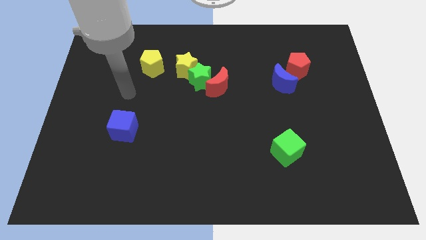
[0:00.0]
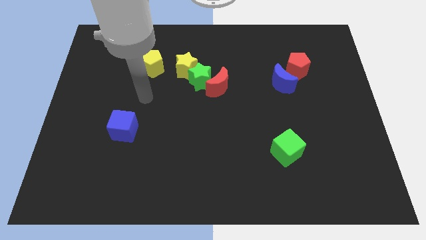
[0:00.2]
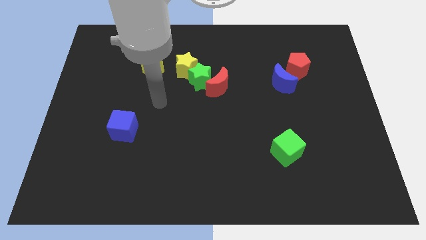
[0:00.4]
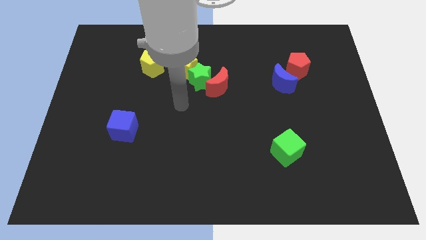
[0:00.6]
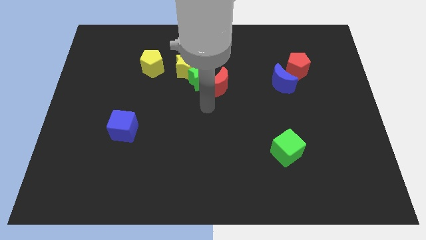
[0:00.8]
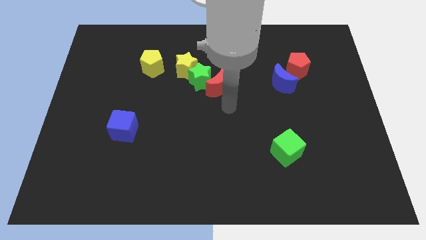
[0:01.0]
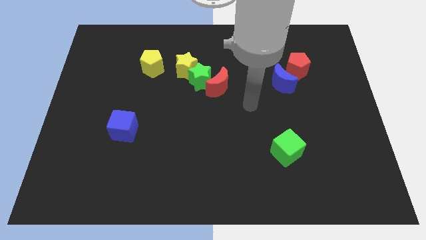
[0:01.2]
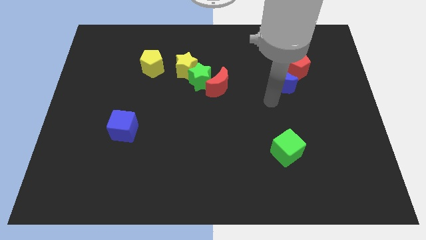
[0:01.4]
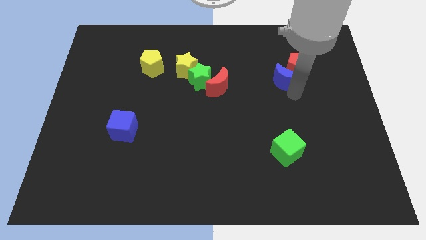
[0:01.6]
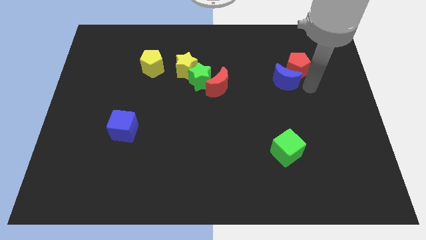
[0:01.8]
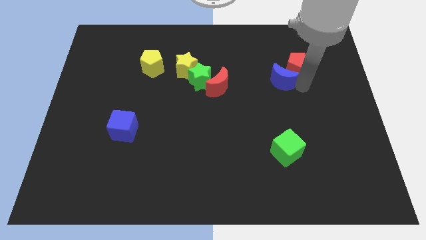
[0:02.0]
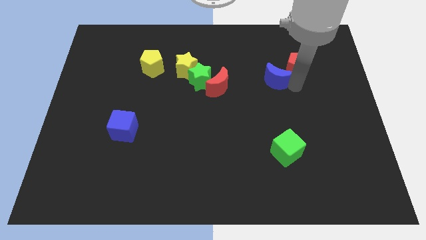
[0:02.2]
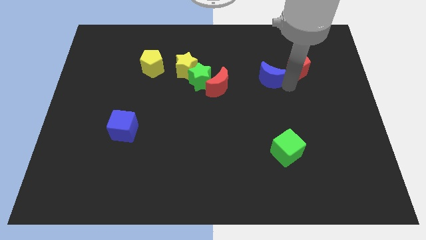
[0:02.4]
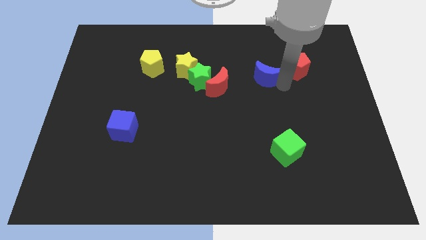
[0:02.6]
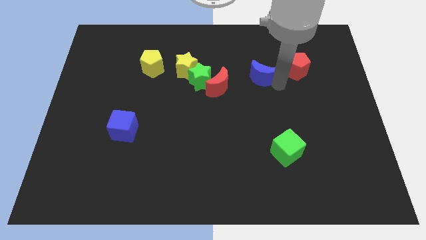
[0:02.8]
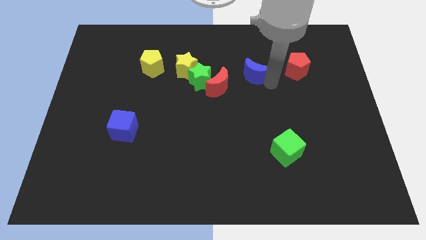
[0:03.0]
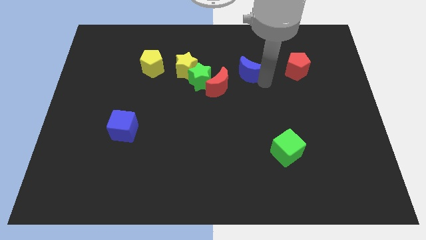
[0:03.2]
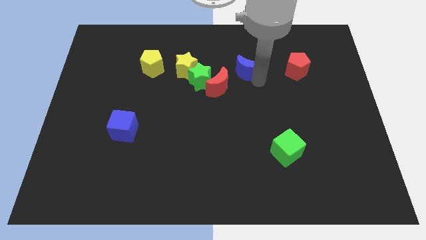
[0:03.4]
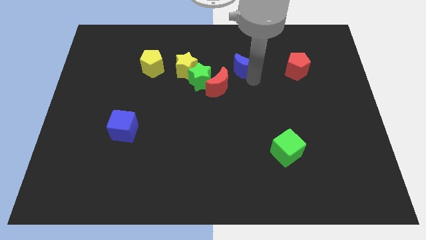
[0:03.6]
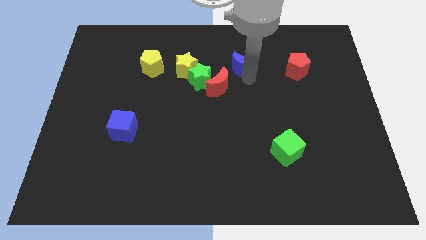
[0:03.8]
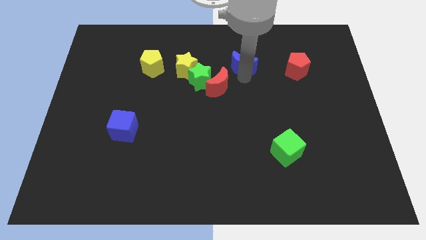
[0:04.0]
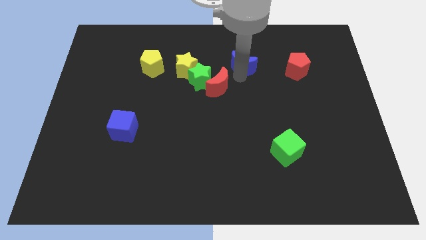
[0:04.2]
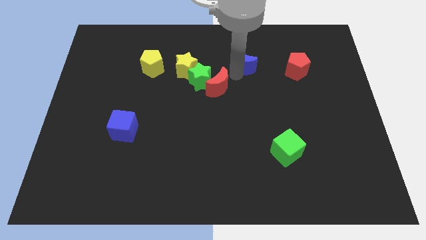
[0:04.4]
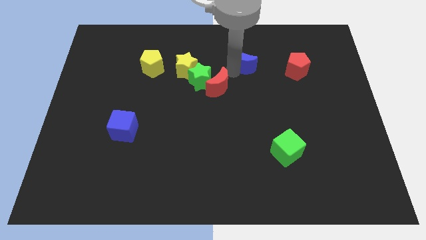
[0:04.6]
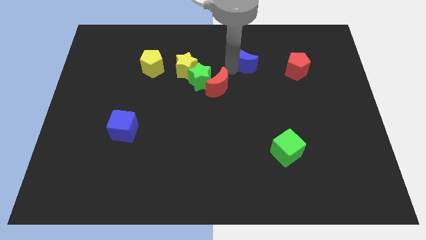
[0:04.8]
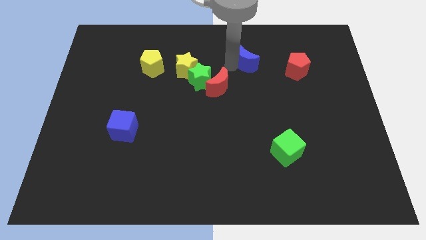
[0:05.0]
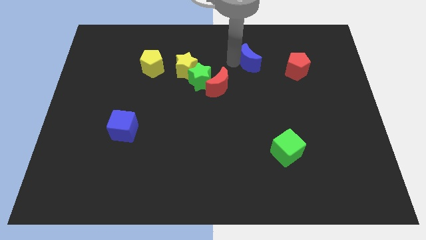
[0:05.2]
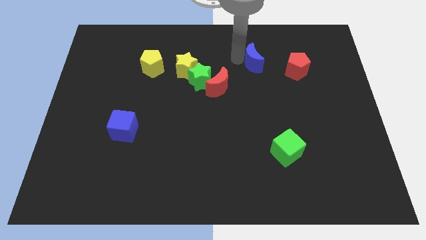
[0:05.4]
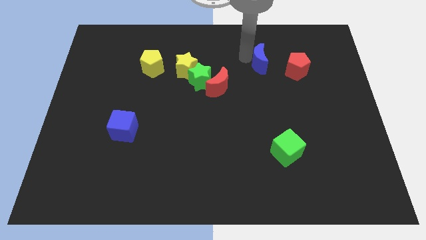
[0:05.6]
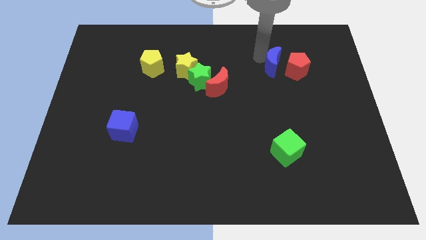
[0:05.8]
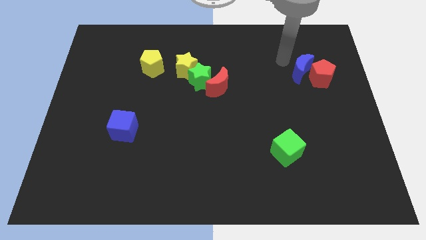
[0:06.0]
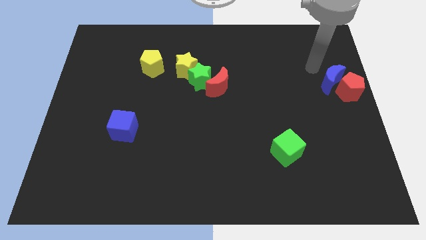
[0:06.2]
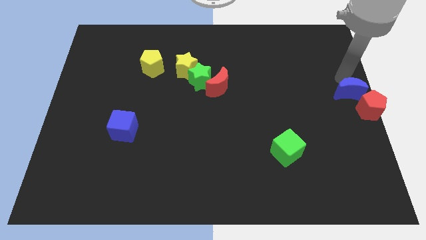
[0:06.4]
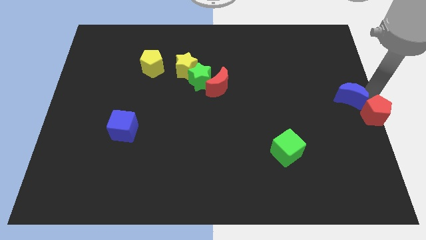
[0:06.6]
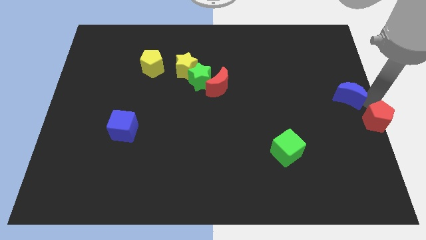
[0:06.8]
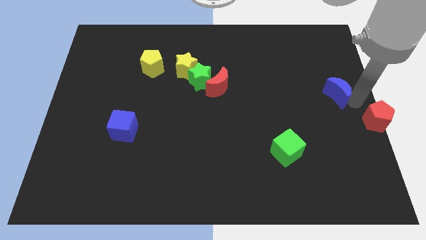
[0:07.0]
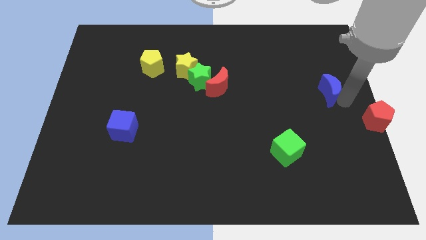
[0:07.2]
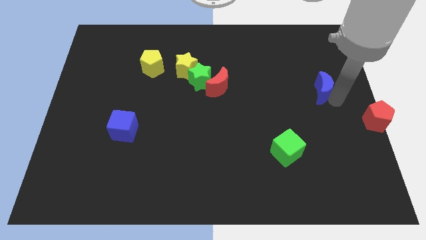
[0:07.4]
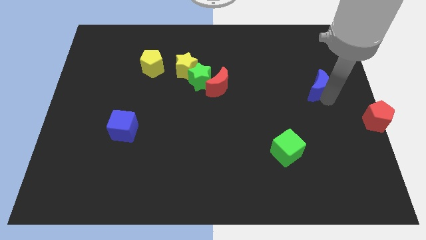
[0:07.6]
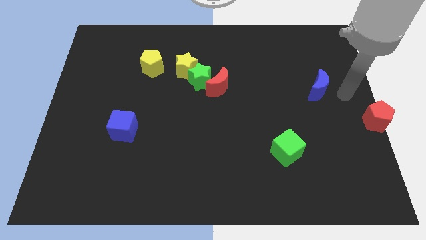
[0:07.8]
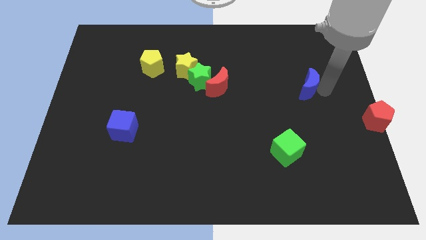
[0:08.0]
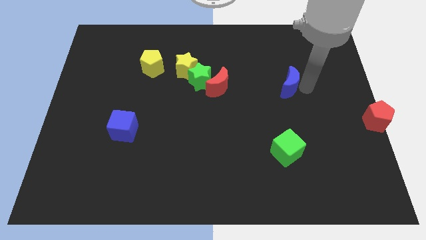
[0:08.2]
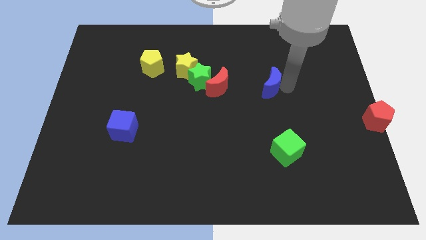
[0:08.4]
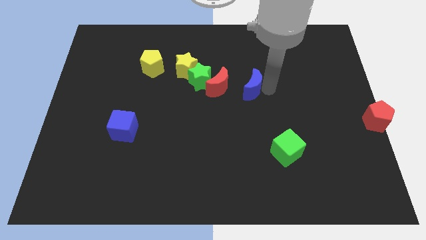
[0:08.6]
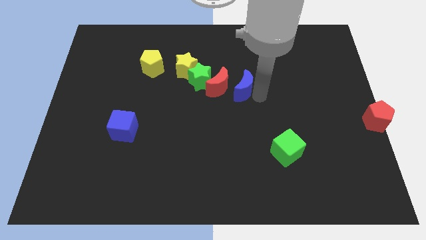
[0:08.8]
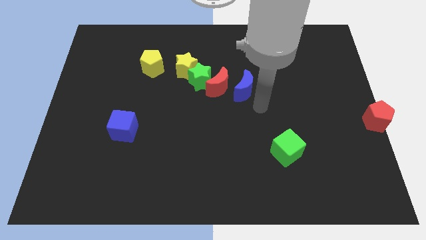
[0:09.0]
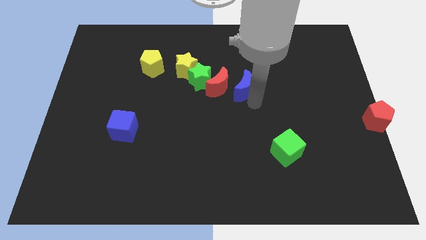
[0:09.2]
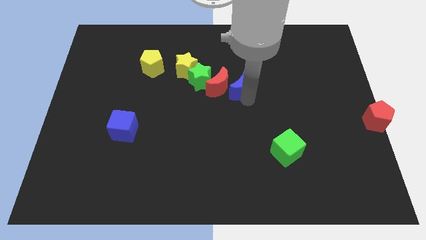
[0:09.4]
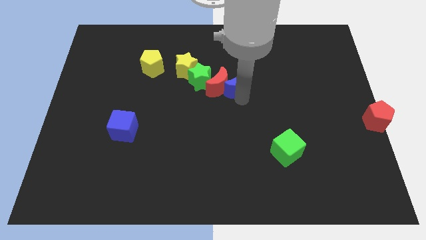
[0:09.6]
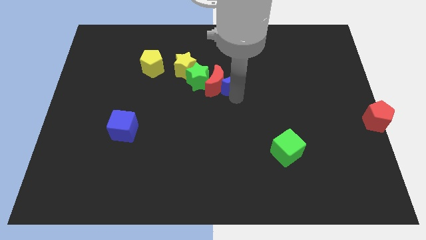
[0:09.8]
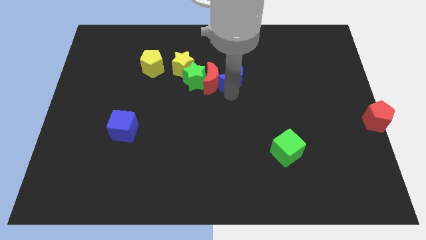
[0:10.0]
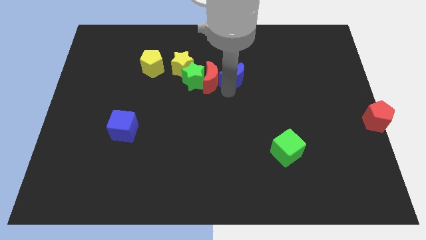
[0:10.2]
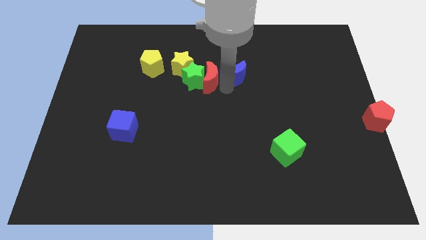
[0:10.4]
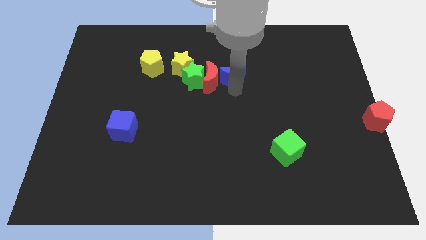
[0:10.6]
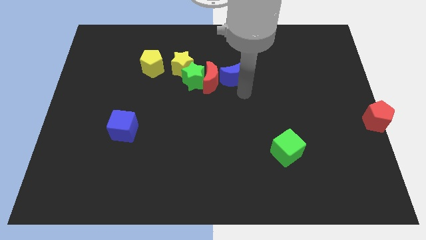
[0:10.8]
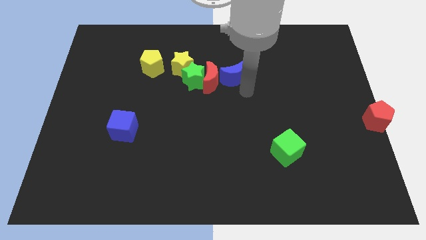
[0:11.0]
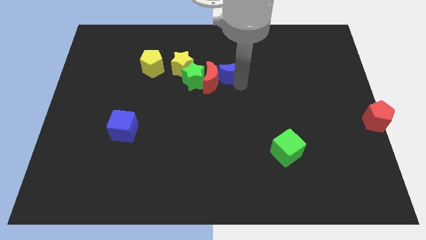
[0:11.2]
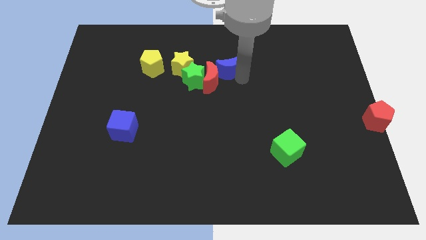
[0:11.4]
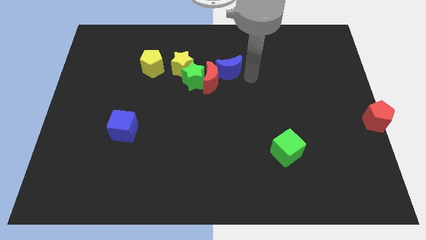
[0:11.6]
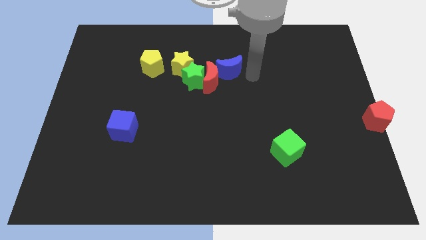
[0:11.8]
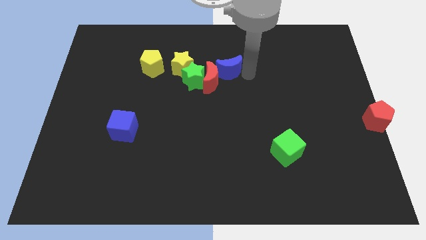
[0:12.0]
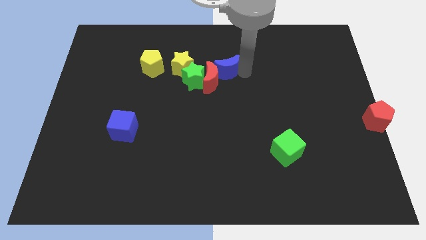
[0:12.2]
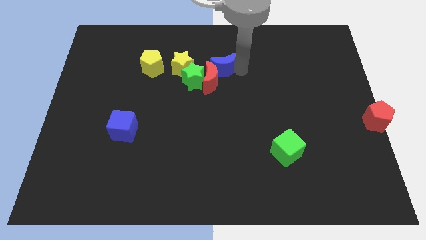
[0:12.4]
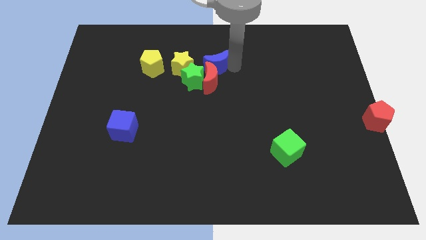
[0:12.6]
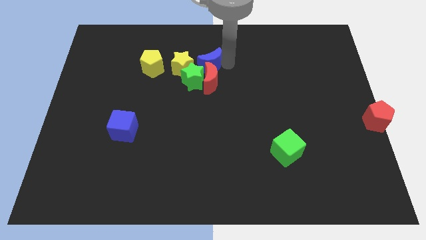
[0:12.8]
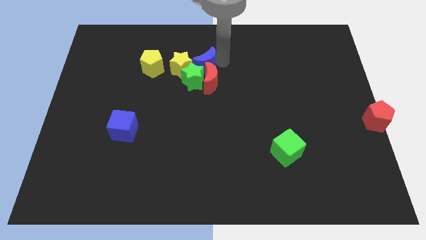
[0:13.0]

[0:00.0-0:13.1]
push the blue moon close to the yellow star

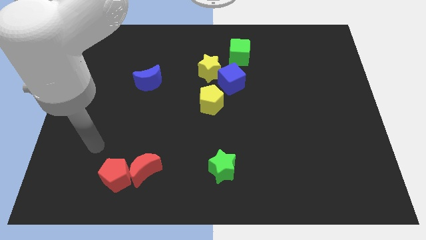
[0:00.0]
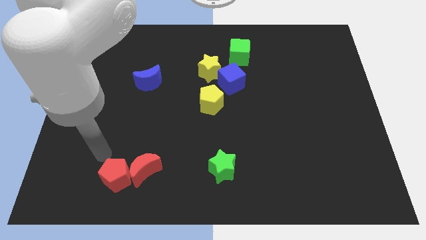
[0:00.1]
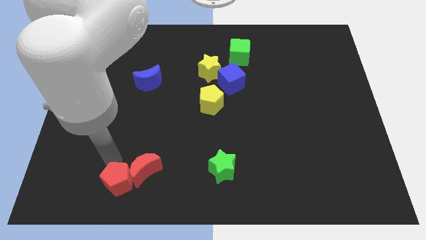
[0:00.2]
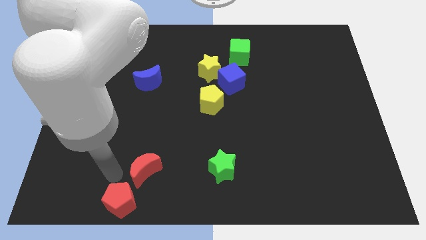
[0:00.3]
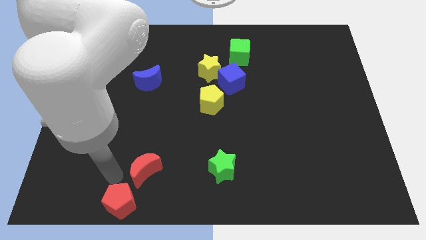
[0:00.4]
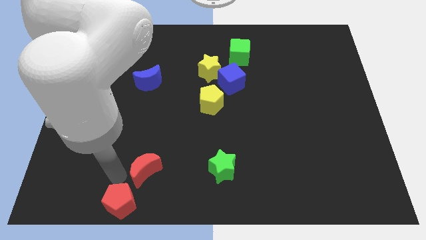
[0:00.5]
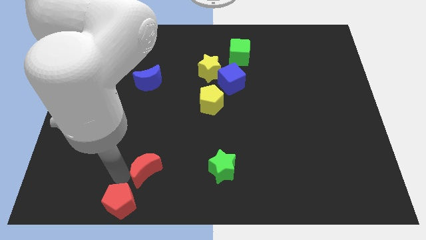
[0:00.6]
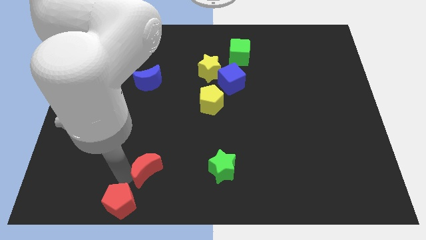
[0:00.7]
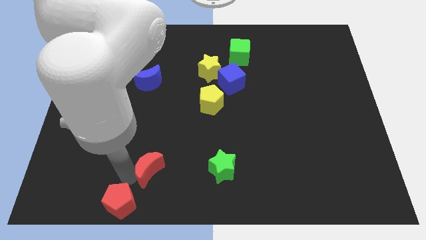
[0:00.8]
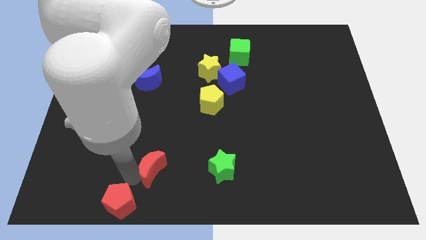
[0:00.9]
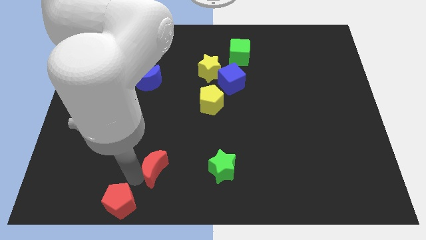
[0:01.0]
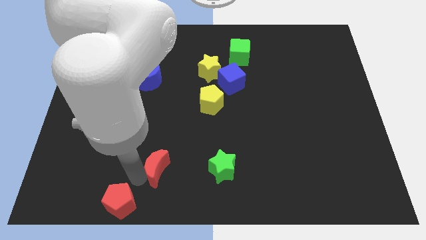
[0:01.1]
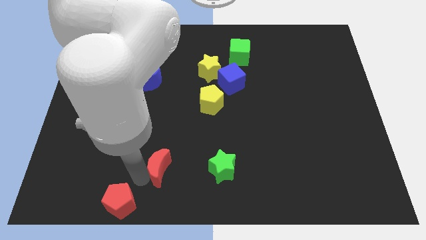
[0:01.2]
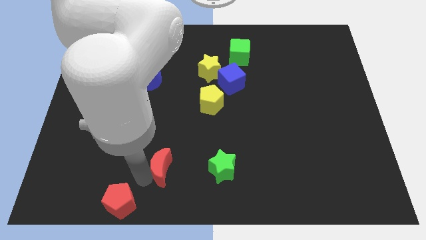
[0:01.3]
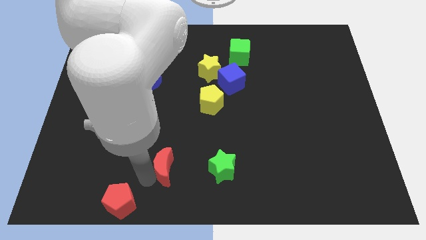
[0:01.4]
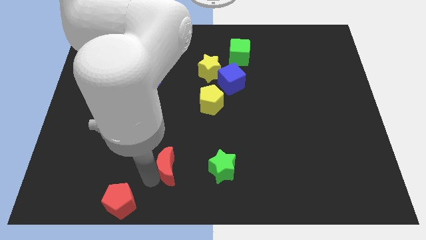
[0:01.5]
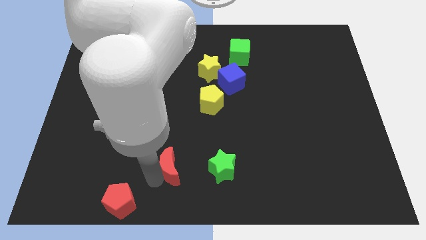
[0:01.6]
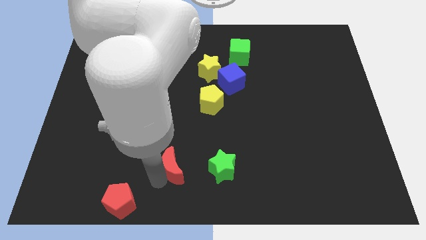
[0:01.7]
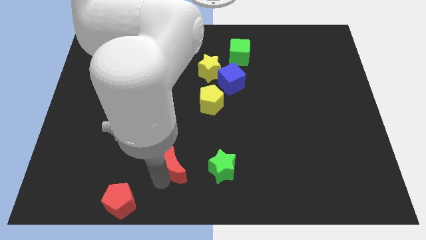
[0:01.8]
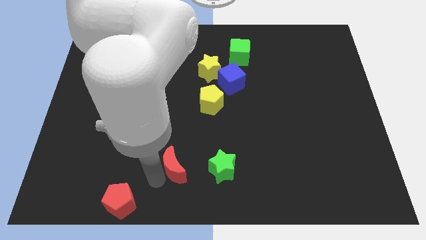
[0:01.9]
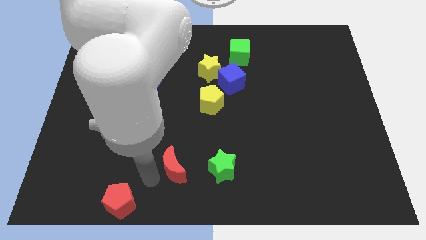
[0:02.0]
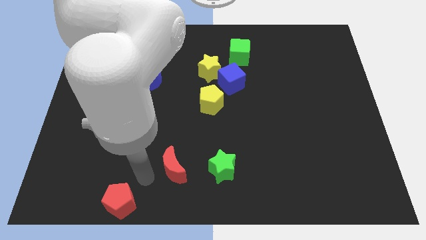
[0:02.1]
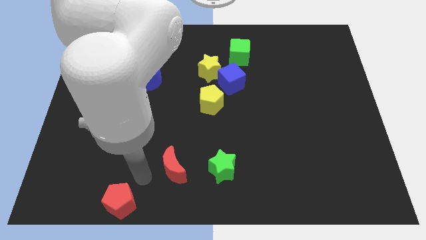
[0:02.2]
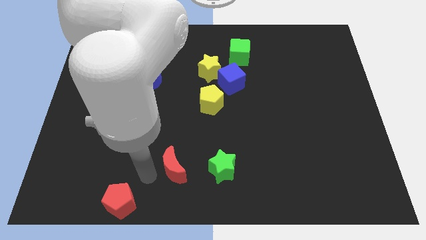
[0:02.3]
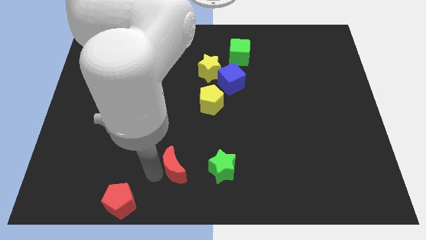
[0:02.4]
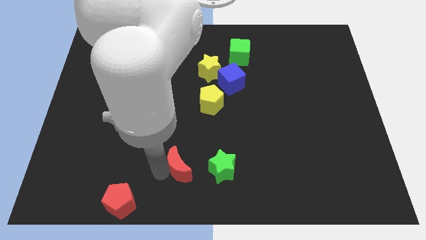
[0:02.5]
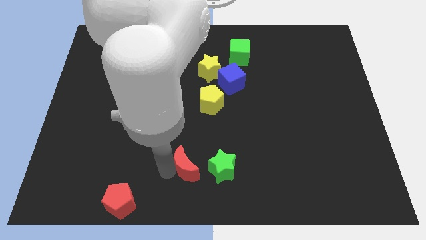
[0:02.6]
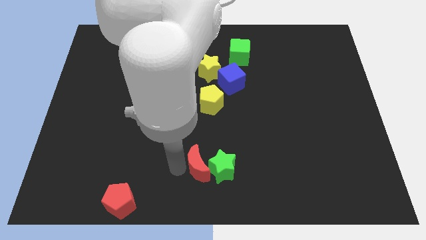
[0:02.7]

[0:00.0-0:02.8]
move the red moon towards the green star
